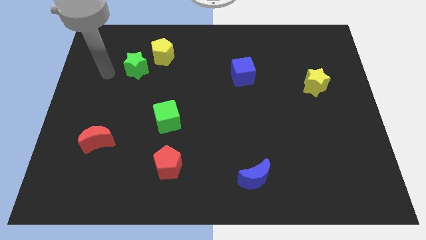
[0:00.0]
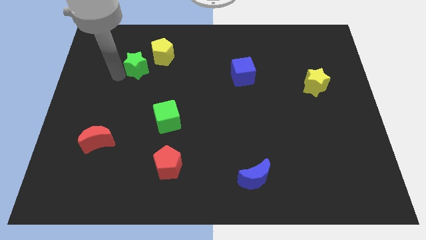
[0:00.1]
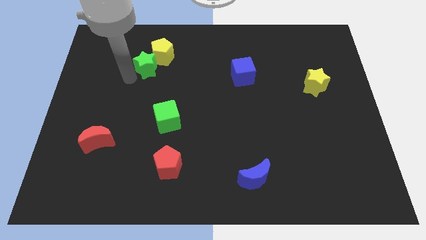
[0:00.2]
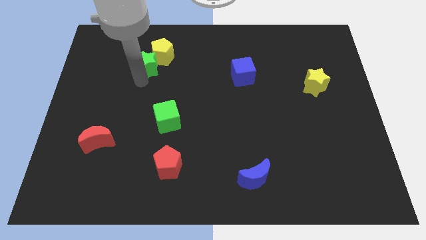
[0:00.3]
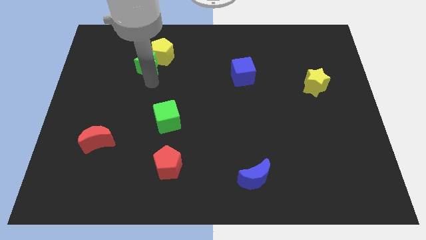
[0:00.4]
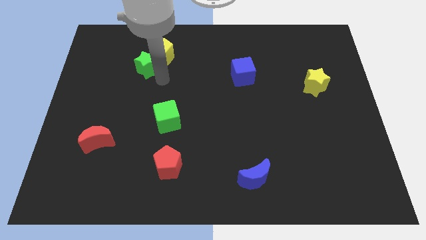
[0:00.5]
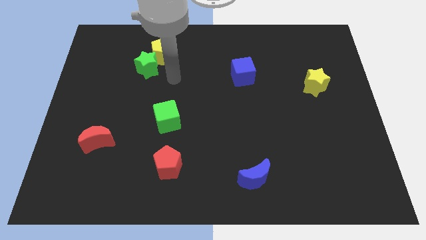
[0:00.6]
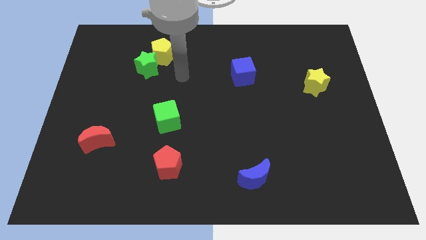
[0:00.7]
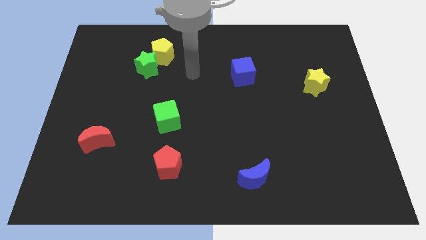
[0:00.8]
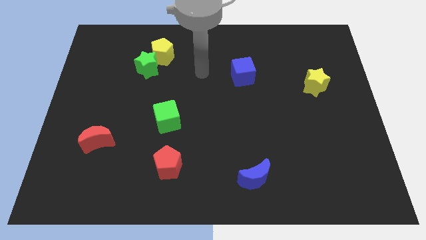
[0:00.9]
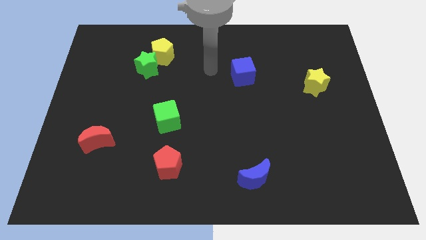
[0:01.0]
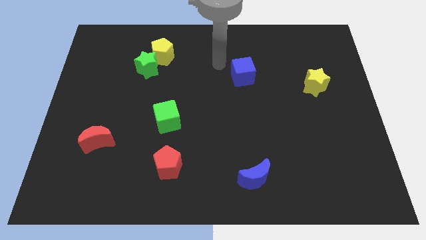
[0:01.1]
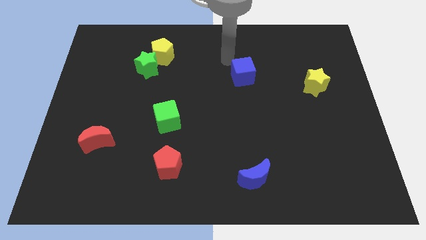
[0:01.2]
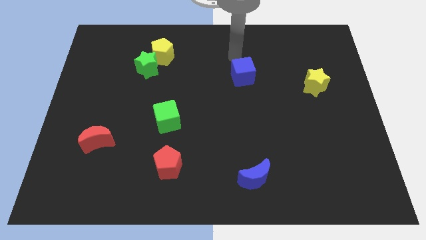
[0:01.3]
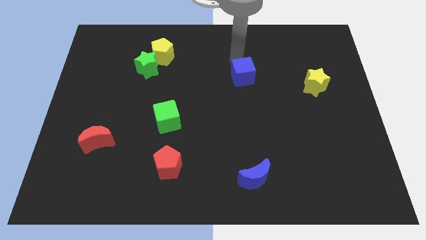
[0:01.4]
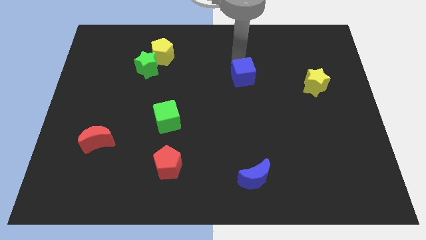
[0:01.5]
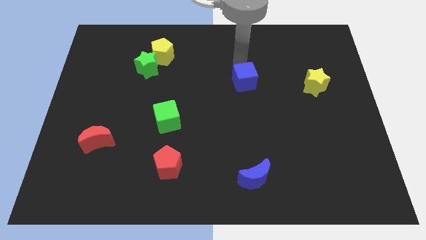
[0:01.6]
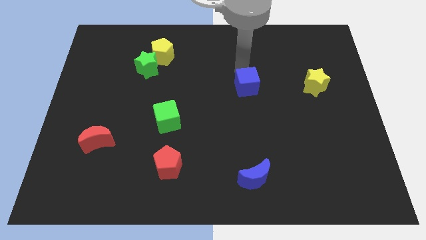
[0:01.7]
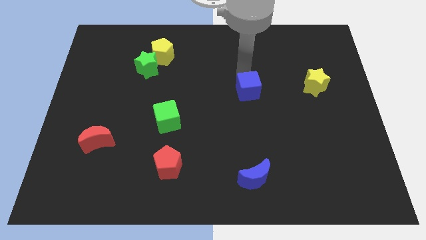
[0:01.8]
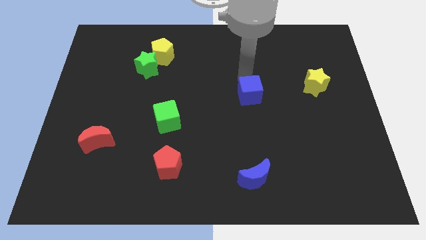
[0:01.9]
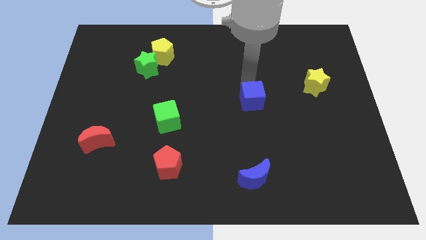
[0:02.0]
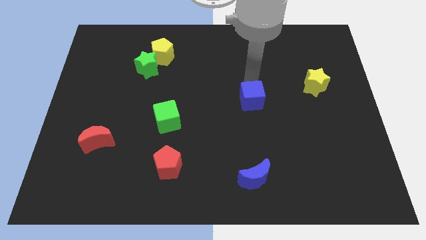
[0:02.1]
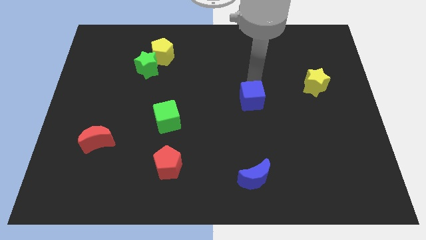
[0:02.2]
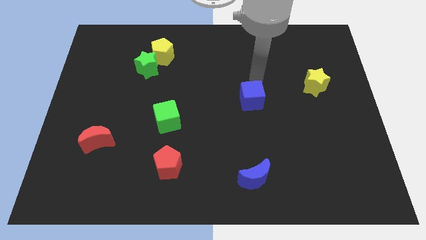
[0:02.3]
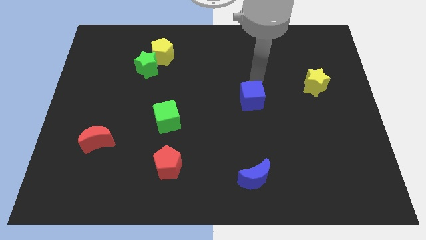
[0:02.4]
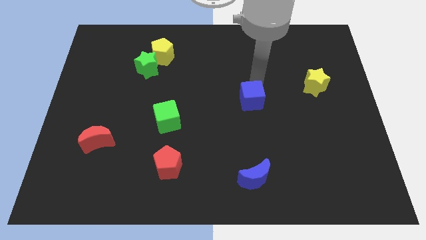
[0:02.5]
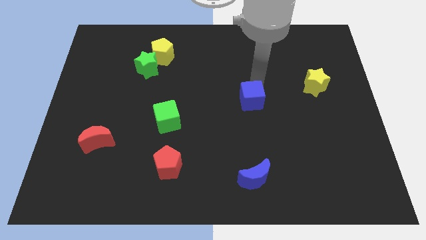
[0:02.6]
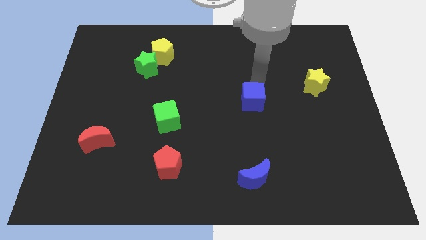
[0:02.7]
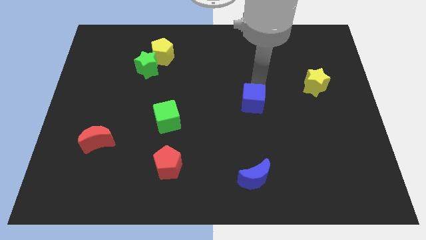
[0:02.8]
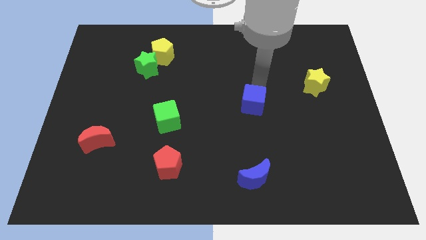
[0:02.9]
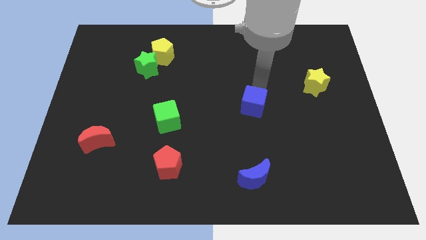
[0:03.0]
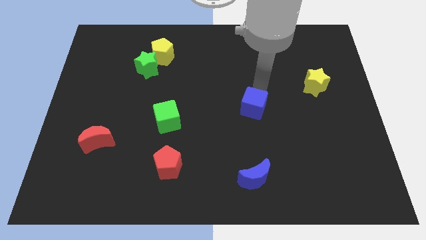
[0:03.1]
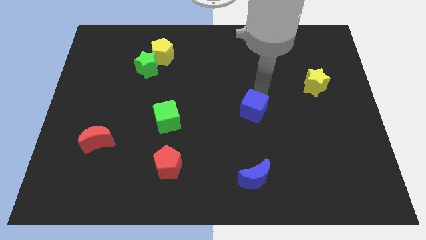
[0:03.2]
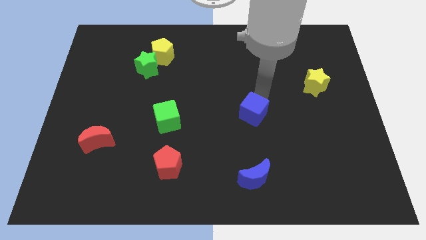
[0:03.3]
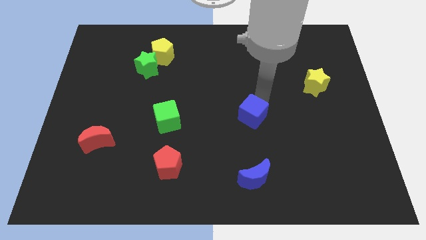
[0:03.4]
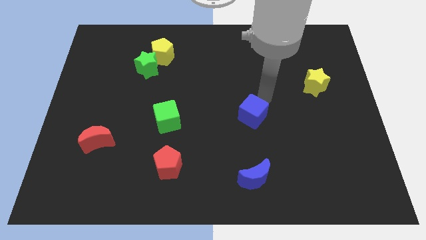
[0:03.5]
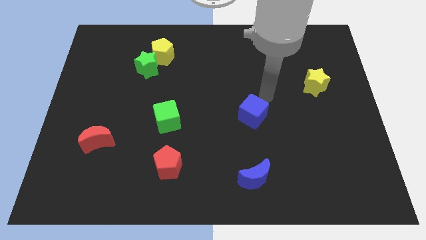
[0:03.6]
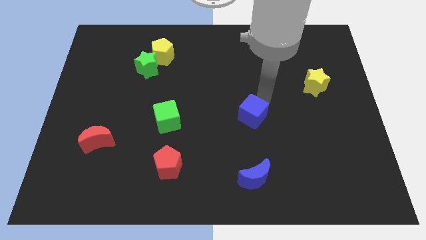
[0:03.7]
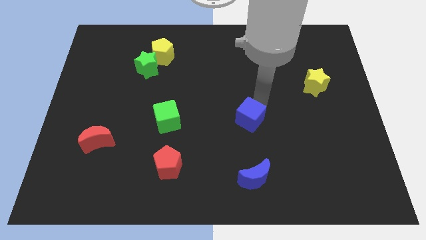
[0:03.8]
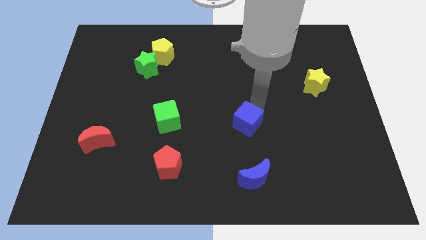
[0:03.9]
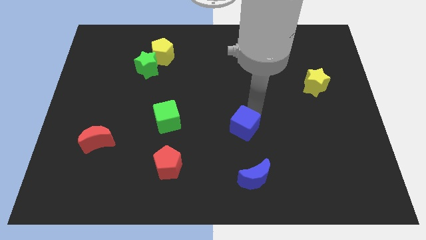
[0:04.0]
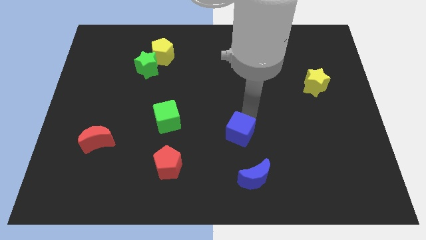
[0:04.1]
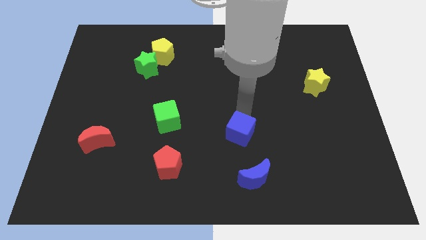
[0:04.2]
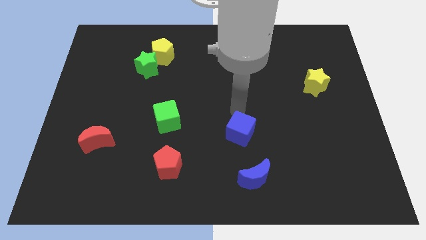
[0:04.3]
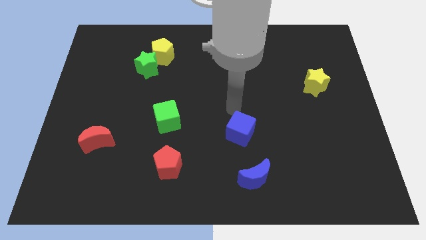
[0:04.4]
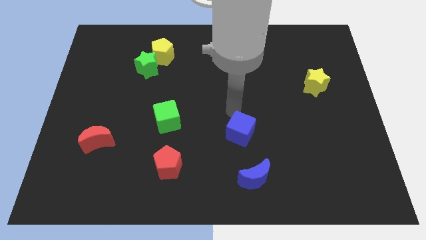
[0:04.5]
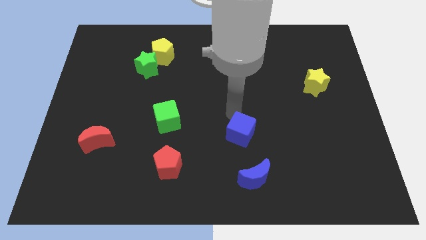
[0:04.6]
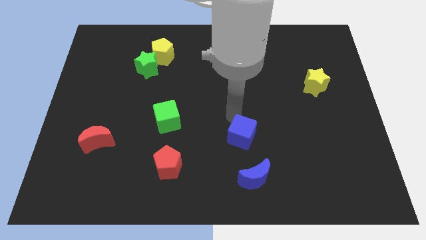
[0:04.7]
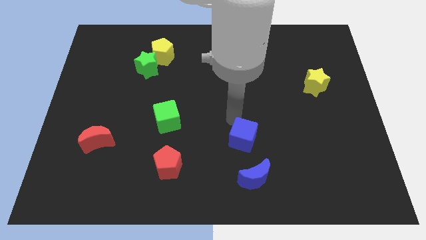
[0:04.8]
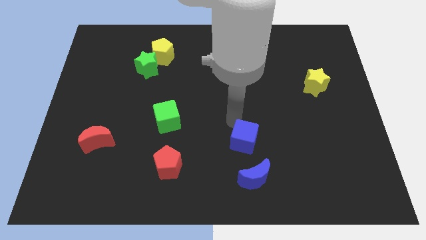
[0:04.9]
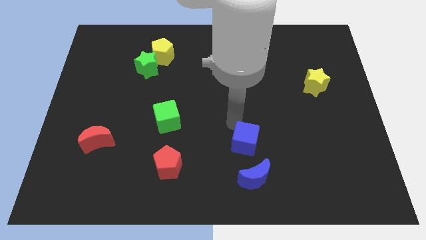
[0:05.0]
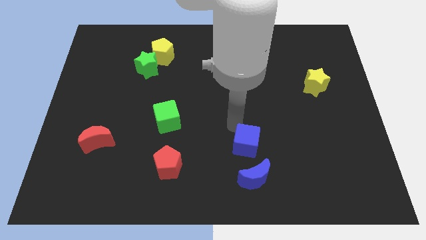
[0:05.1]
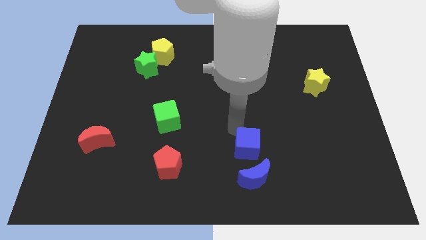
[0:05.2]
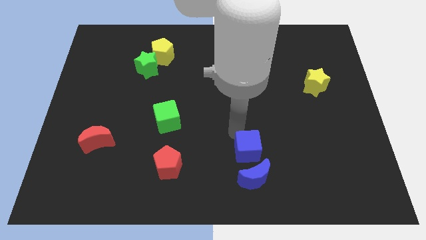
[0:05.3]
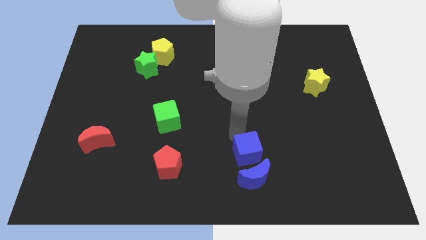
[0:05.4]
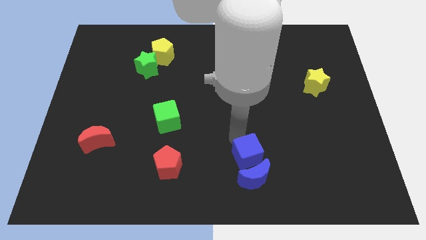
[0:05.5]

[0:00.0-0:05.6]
move the blue cube towards the blue moon

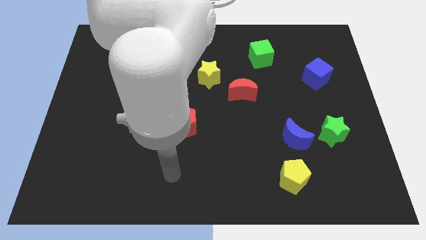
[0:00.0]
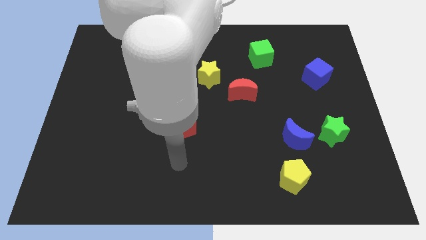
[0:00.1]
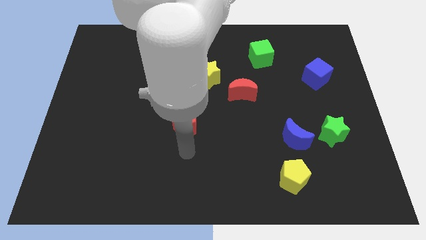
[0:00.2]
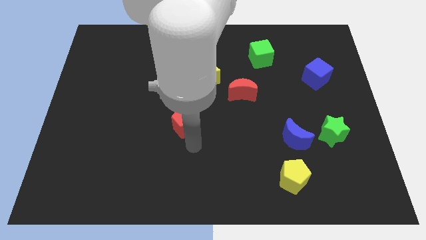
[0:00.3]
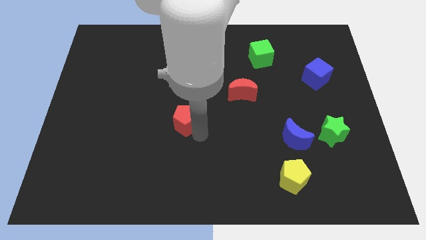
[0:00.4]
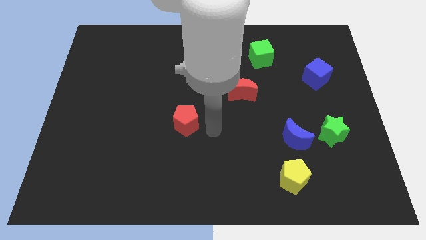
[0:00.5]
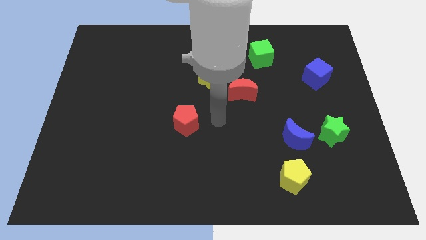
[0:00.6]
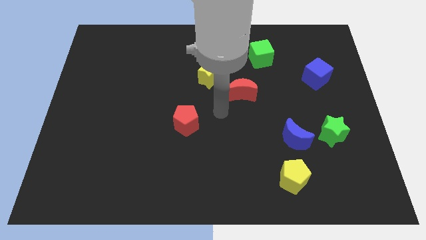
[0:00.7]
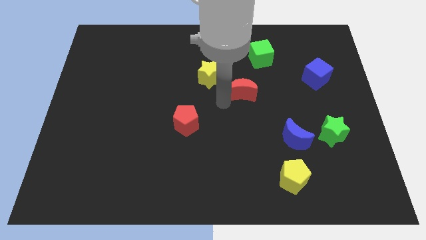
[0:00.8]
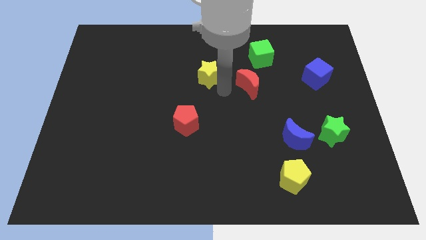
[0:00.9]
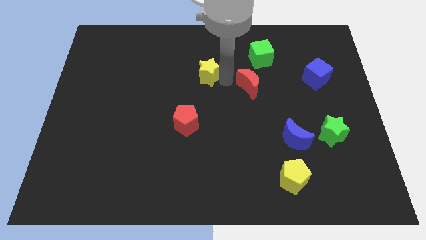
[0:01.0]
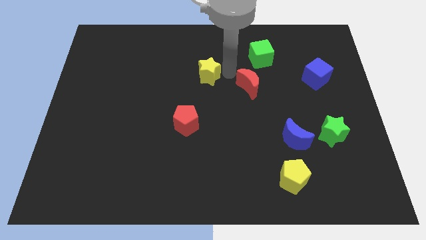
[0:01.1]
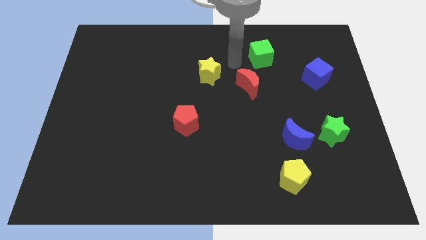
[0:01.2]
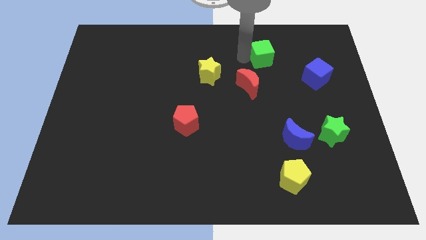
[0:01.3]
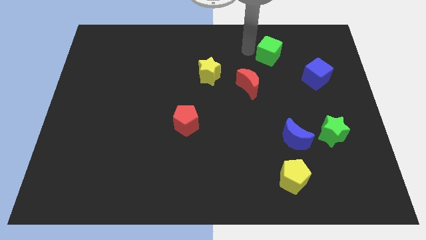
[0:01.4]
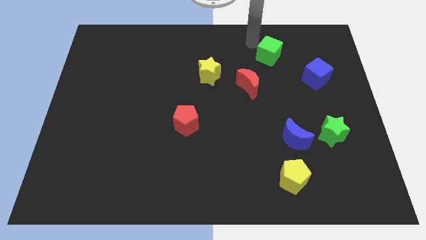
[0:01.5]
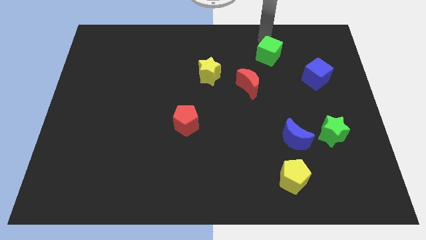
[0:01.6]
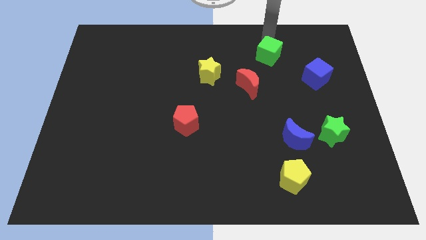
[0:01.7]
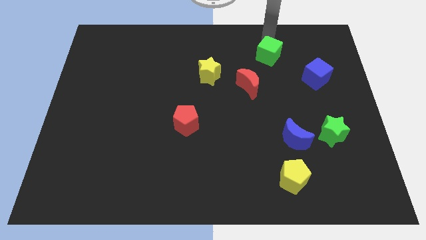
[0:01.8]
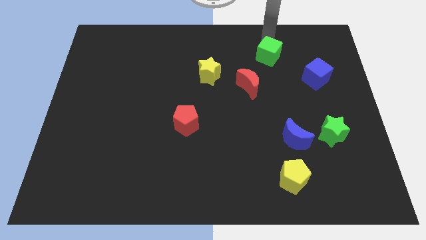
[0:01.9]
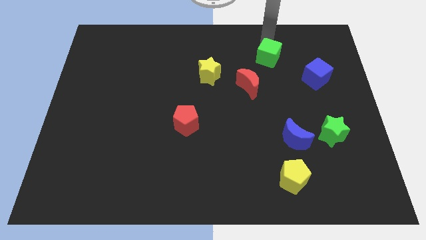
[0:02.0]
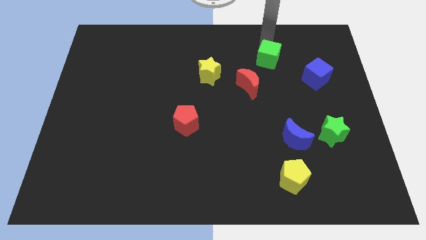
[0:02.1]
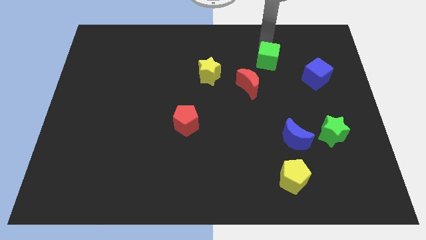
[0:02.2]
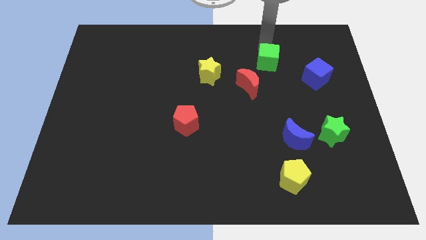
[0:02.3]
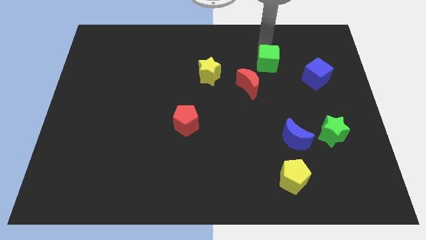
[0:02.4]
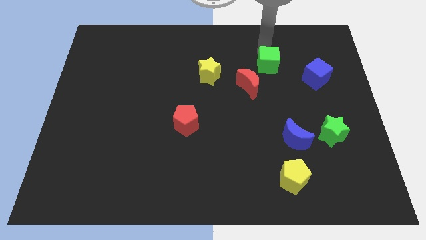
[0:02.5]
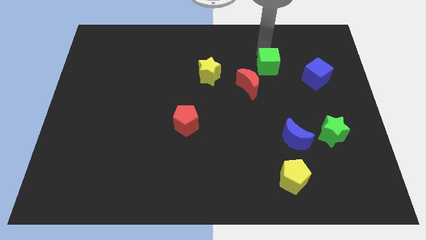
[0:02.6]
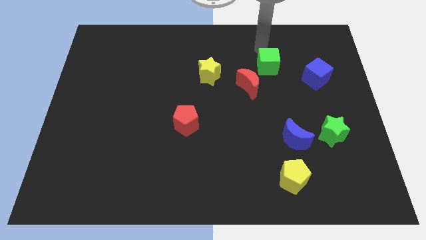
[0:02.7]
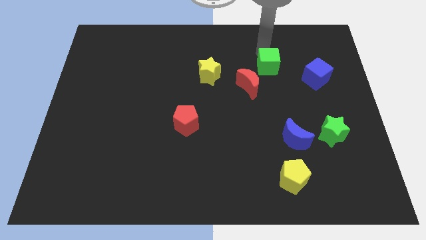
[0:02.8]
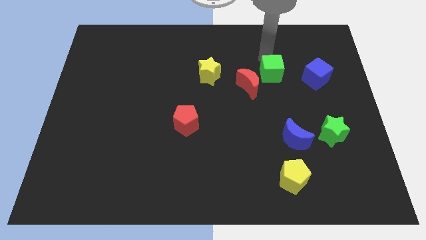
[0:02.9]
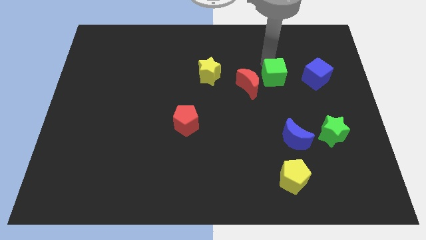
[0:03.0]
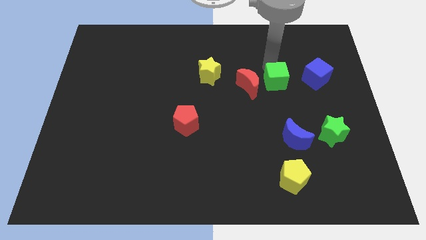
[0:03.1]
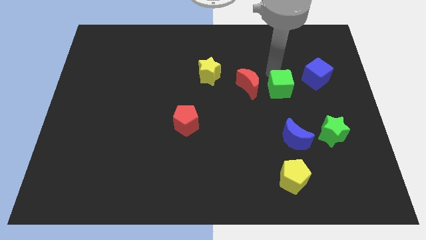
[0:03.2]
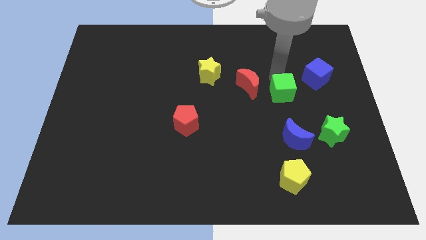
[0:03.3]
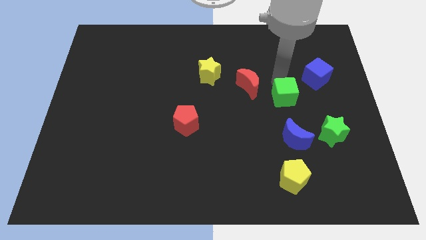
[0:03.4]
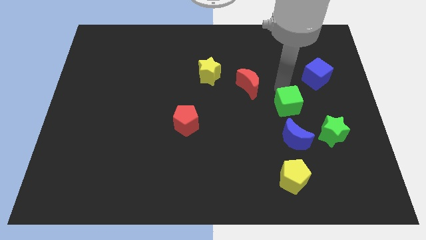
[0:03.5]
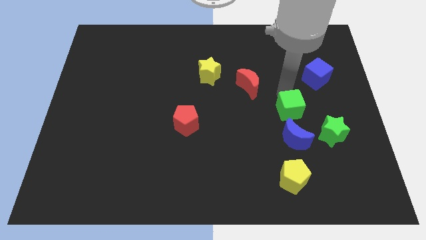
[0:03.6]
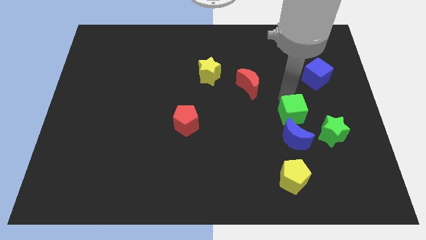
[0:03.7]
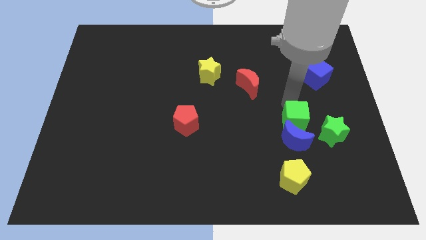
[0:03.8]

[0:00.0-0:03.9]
slide the green cube to the blue moon
